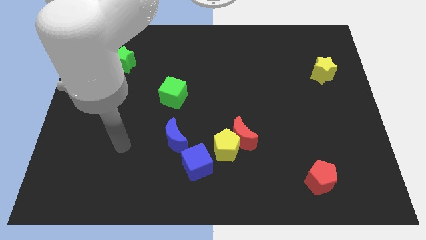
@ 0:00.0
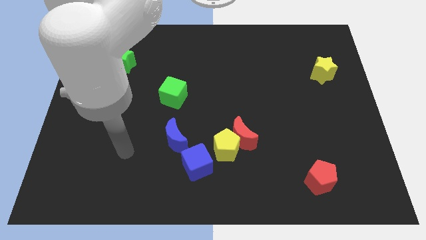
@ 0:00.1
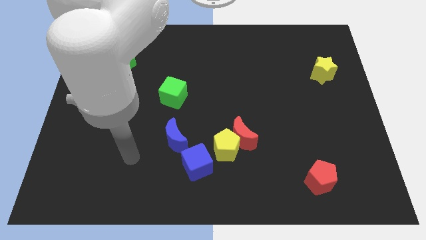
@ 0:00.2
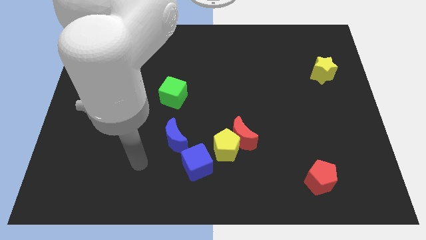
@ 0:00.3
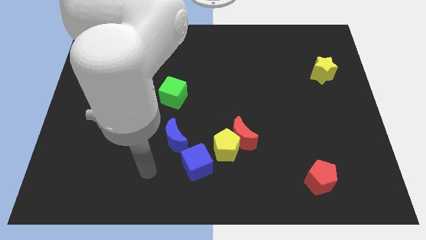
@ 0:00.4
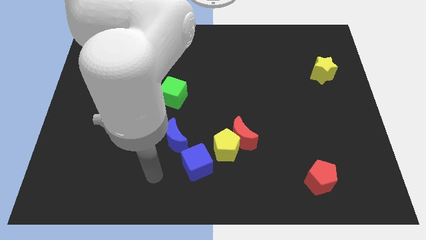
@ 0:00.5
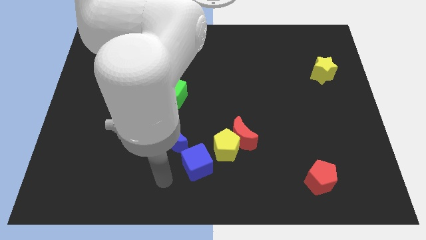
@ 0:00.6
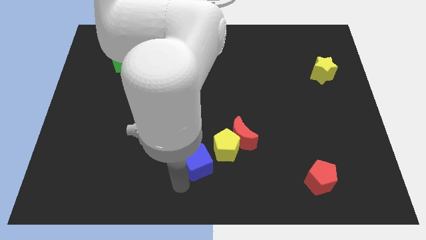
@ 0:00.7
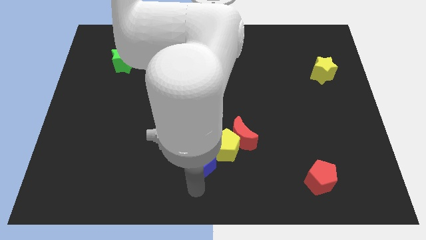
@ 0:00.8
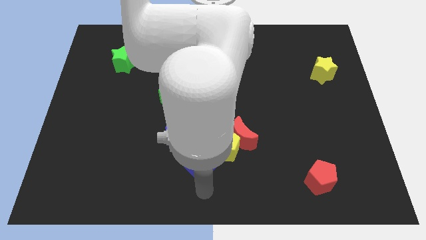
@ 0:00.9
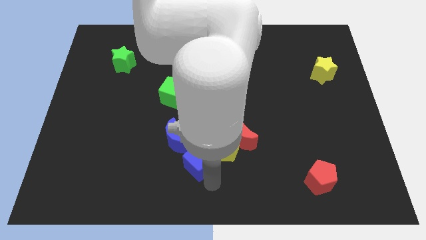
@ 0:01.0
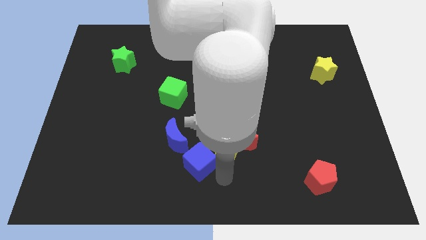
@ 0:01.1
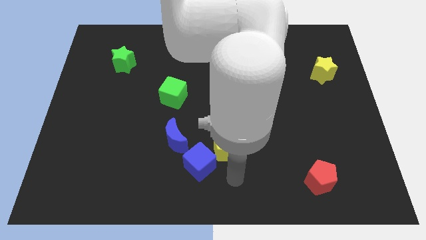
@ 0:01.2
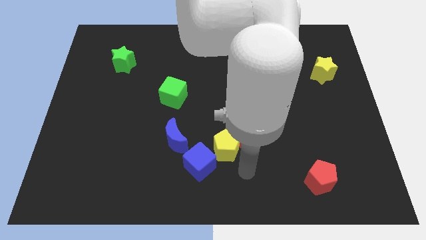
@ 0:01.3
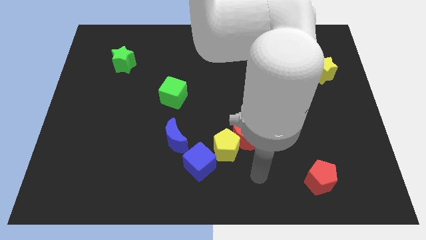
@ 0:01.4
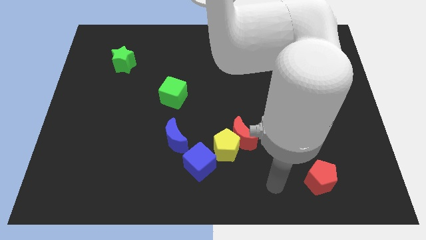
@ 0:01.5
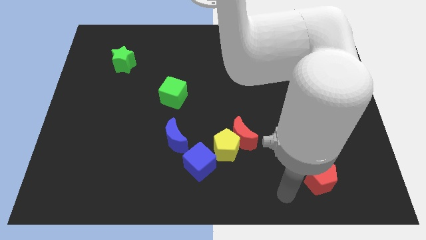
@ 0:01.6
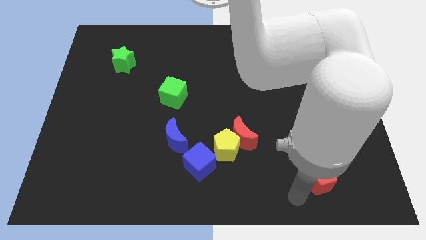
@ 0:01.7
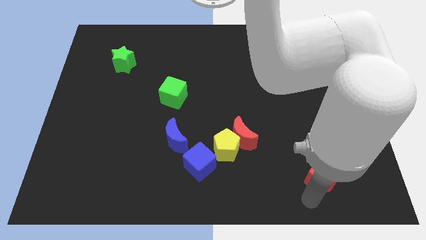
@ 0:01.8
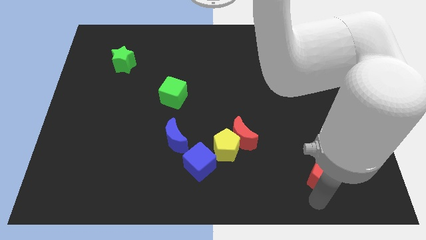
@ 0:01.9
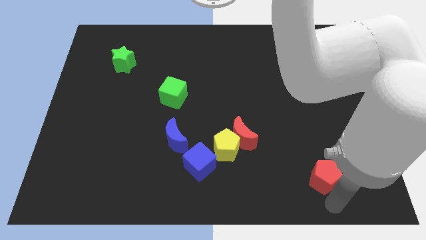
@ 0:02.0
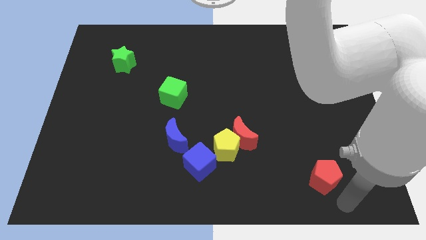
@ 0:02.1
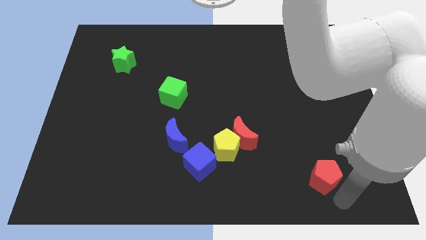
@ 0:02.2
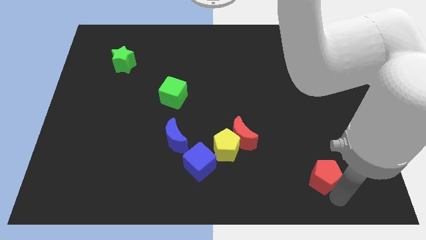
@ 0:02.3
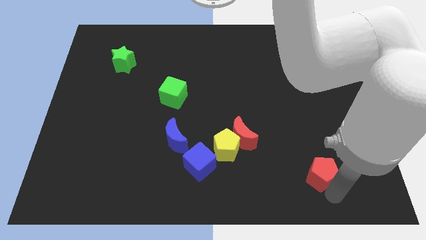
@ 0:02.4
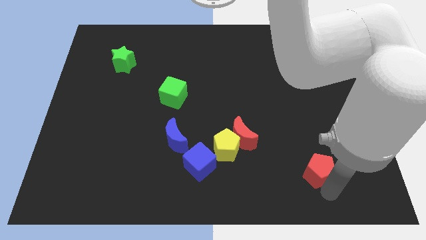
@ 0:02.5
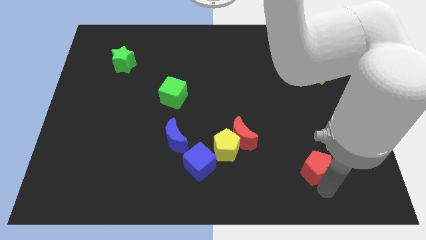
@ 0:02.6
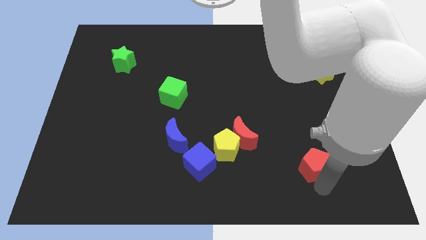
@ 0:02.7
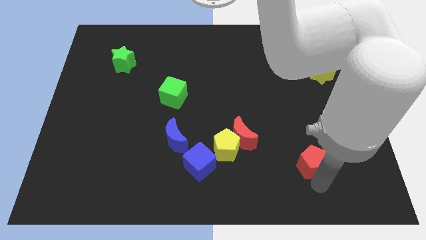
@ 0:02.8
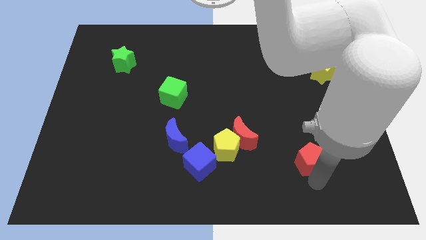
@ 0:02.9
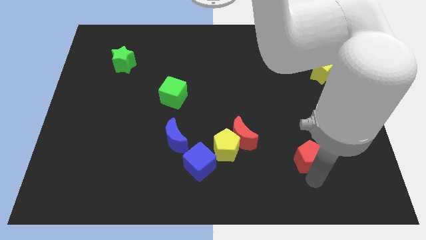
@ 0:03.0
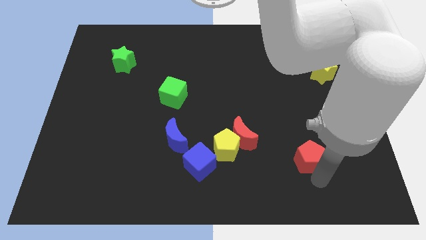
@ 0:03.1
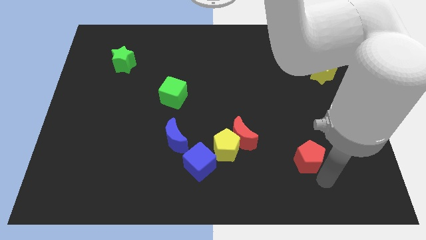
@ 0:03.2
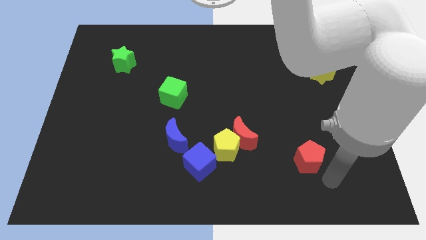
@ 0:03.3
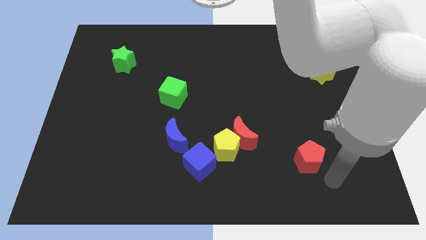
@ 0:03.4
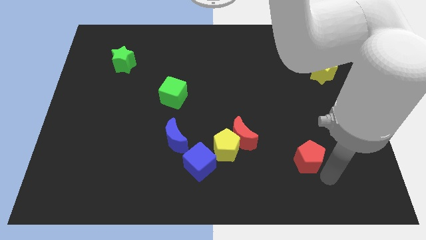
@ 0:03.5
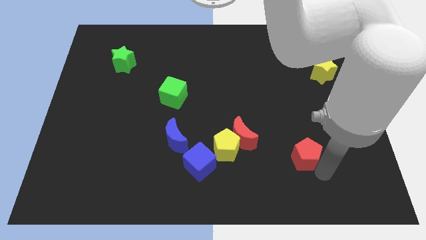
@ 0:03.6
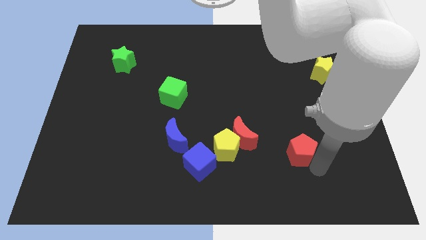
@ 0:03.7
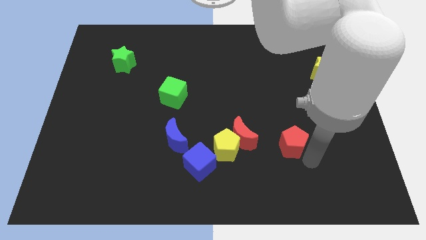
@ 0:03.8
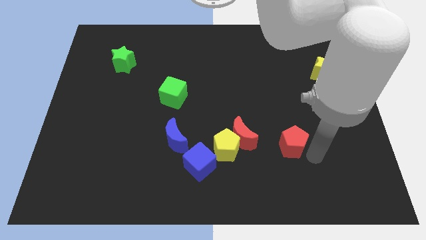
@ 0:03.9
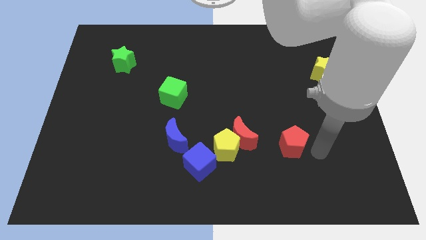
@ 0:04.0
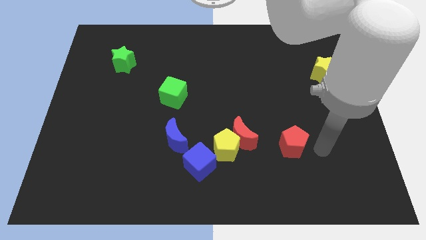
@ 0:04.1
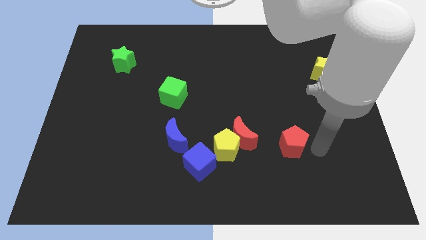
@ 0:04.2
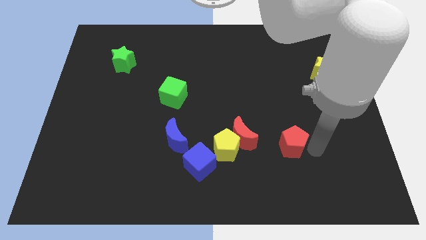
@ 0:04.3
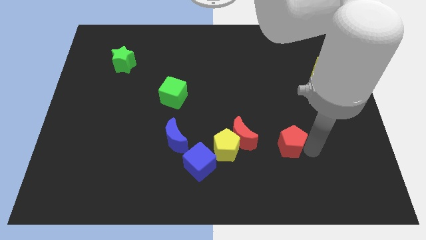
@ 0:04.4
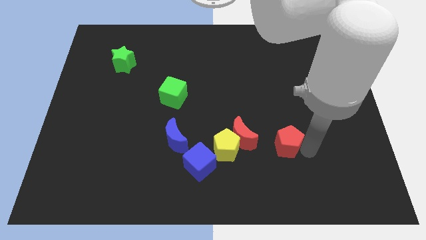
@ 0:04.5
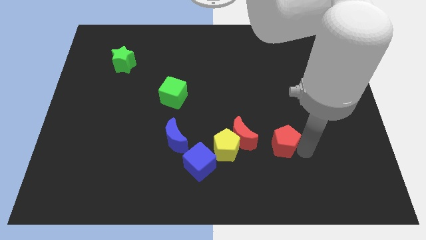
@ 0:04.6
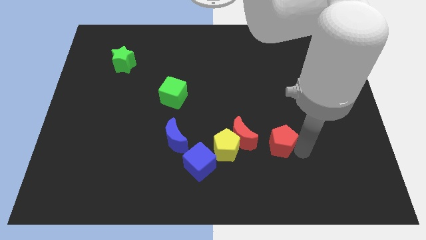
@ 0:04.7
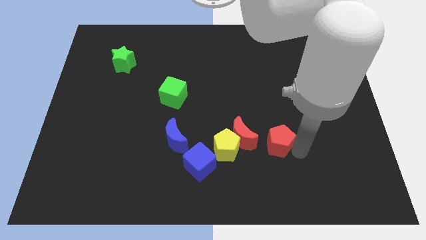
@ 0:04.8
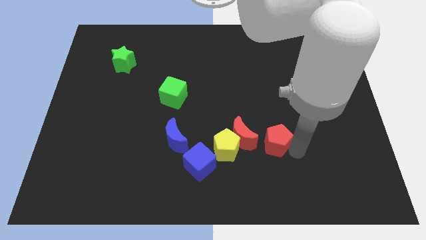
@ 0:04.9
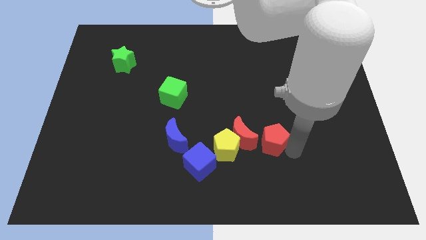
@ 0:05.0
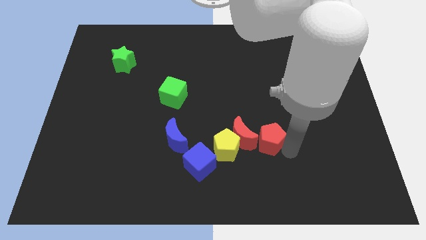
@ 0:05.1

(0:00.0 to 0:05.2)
push the red pentagon to the red moon
